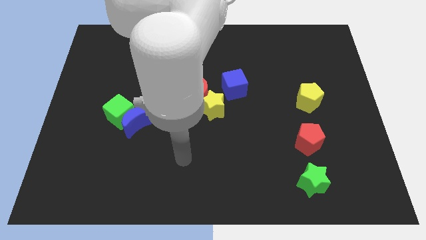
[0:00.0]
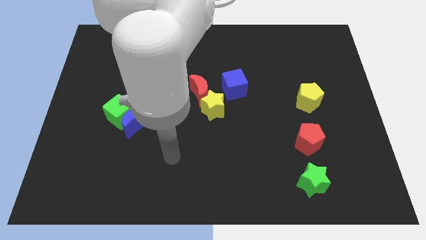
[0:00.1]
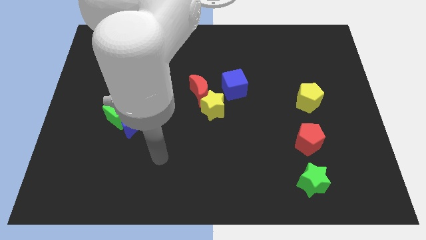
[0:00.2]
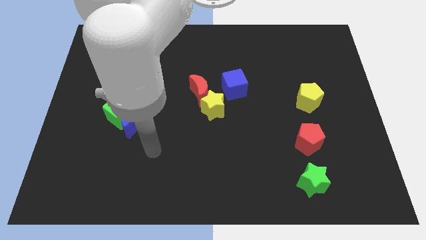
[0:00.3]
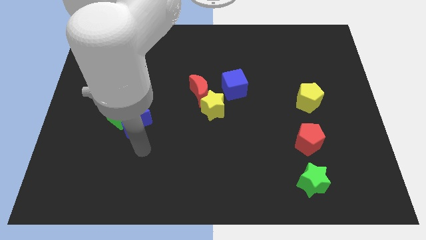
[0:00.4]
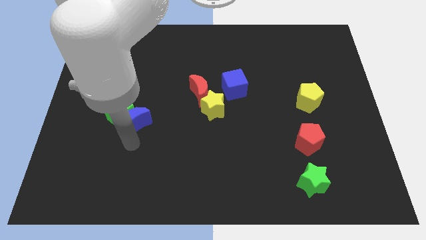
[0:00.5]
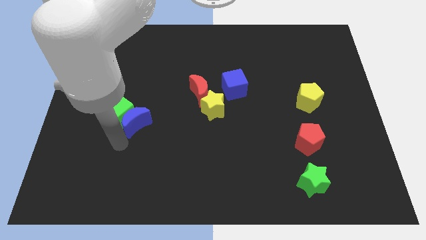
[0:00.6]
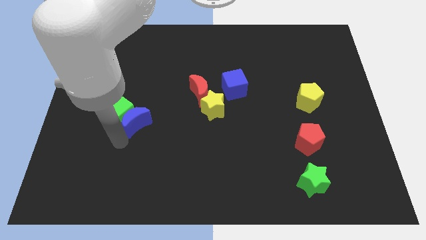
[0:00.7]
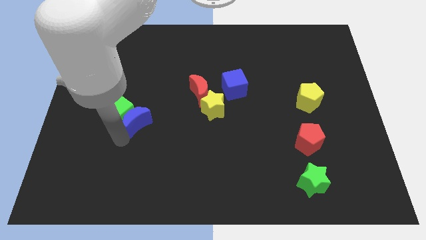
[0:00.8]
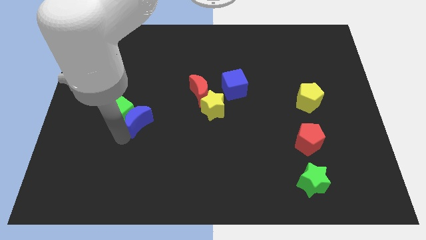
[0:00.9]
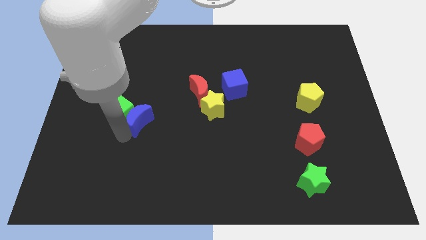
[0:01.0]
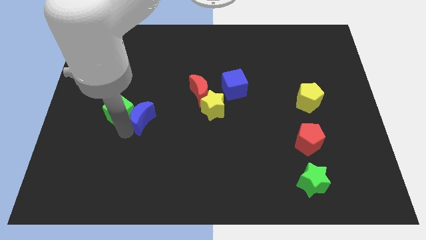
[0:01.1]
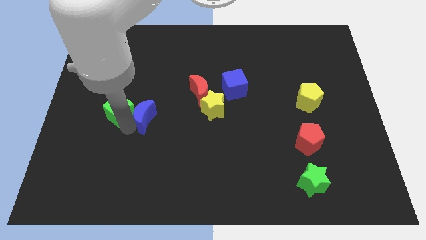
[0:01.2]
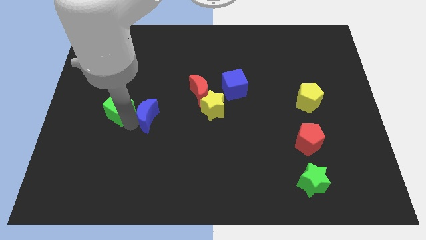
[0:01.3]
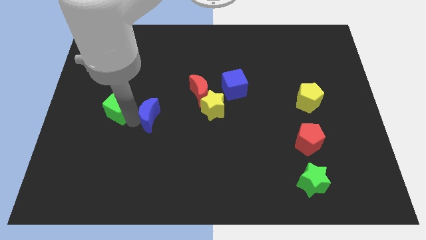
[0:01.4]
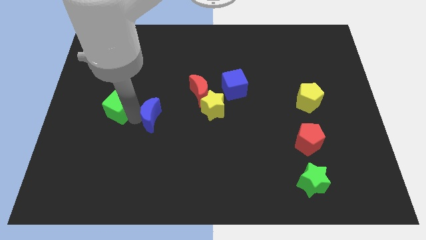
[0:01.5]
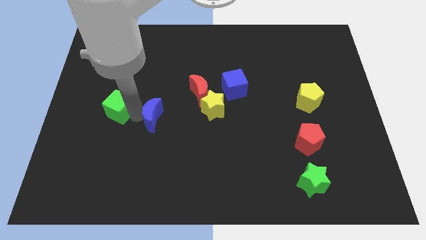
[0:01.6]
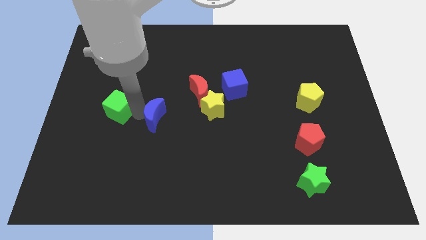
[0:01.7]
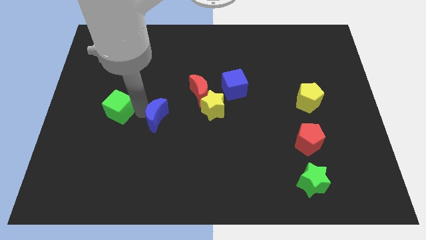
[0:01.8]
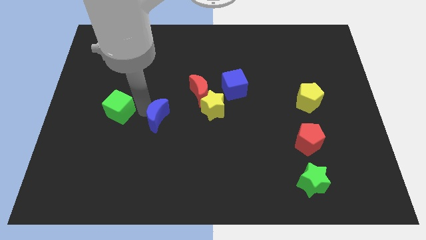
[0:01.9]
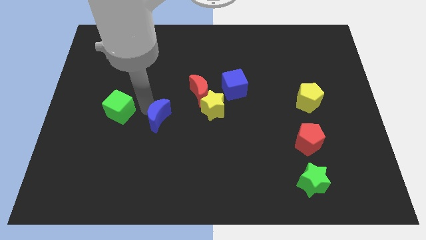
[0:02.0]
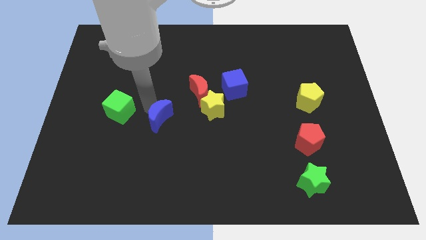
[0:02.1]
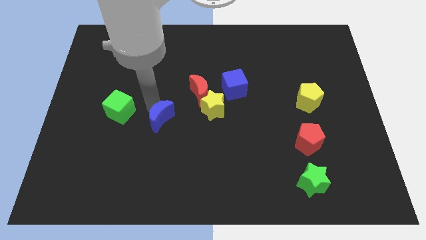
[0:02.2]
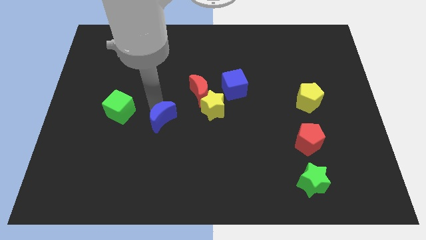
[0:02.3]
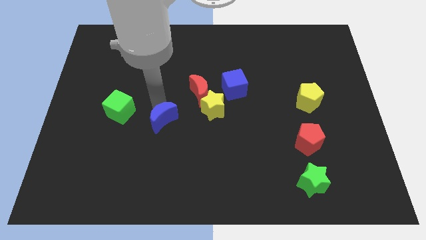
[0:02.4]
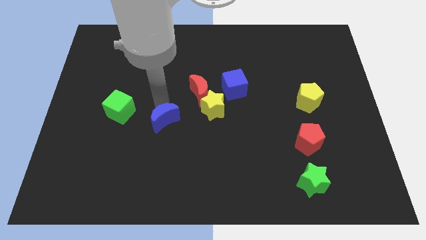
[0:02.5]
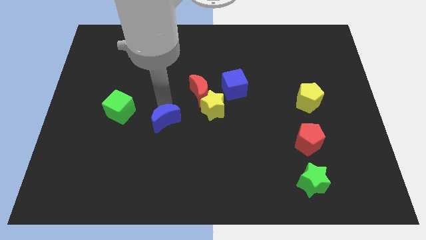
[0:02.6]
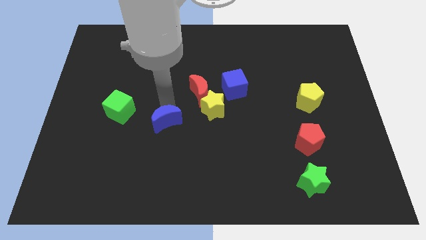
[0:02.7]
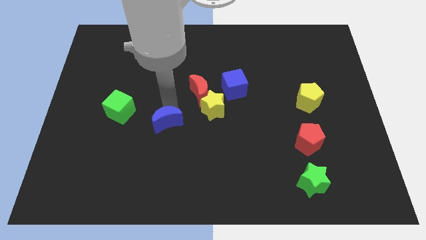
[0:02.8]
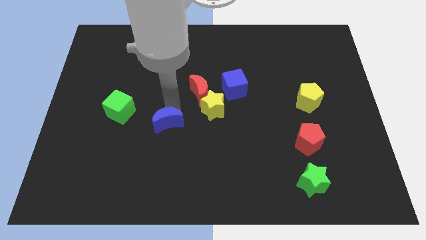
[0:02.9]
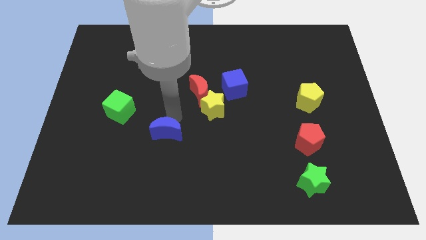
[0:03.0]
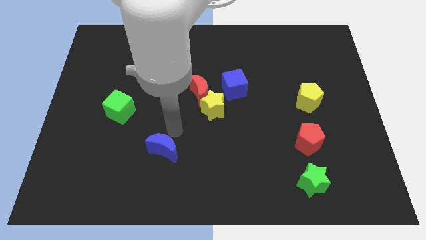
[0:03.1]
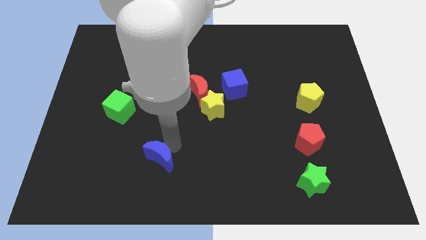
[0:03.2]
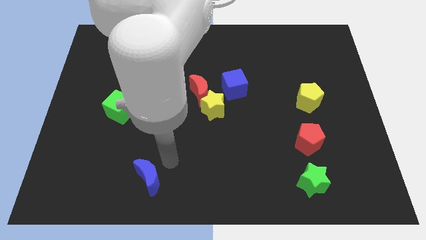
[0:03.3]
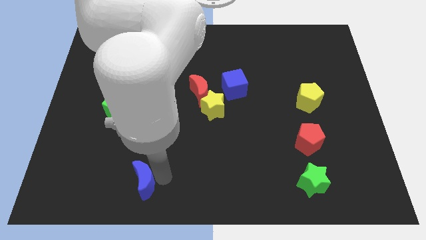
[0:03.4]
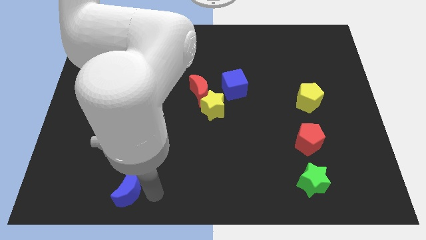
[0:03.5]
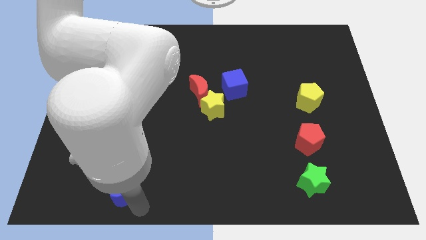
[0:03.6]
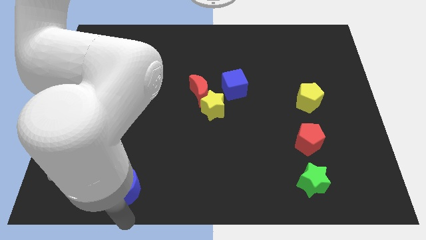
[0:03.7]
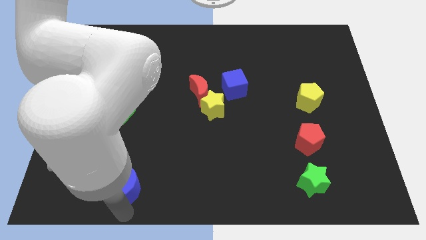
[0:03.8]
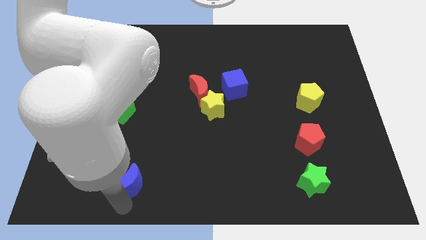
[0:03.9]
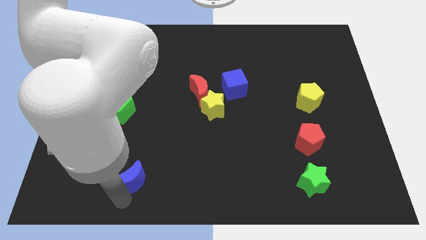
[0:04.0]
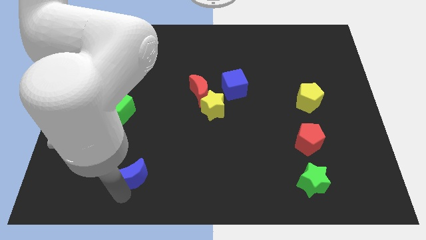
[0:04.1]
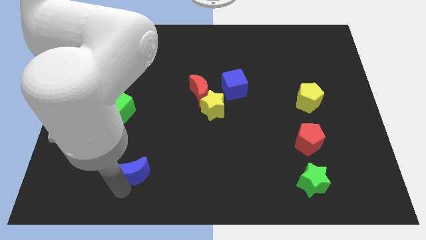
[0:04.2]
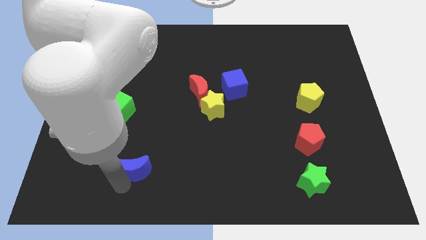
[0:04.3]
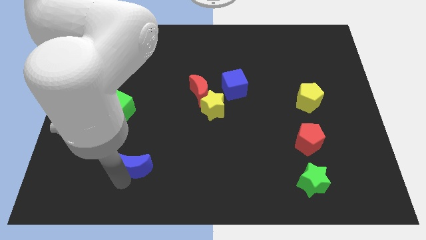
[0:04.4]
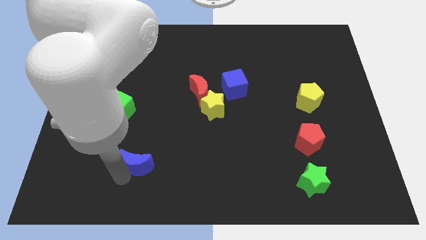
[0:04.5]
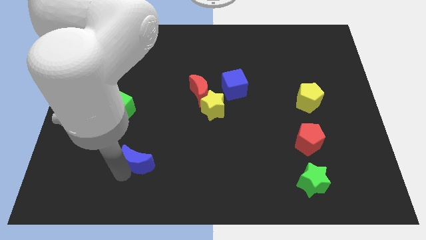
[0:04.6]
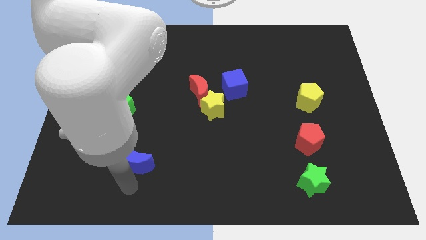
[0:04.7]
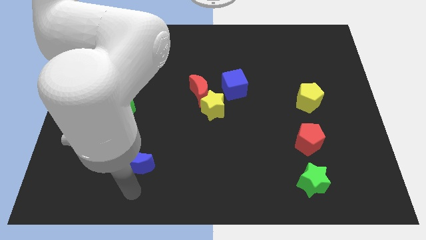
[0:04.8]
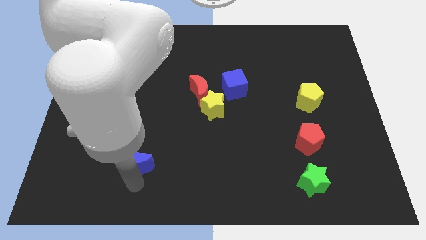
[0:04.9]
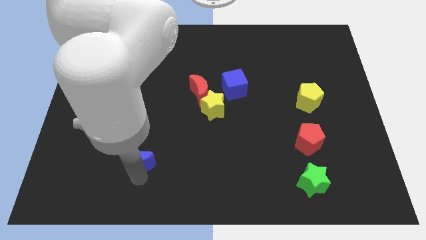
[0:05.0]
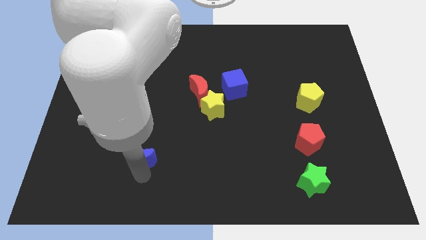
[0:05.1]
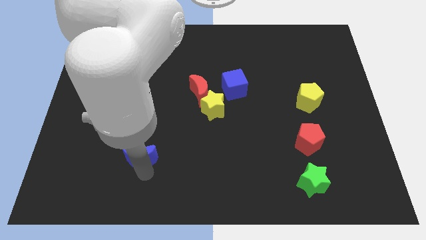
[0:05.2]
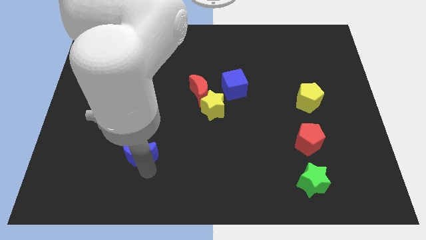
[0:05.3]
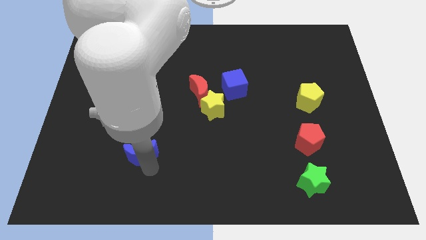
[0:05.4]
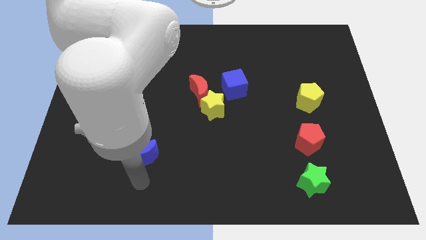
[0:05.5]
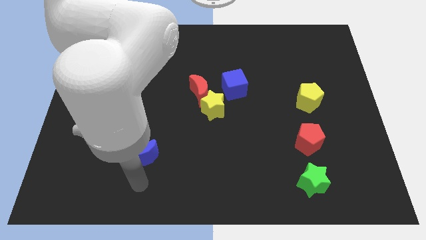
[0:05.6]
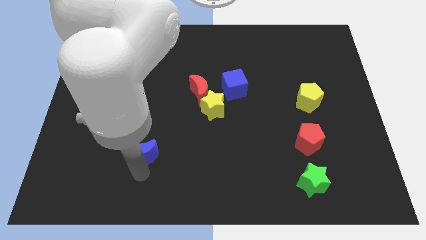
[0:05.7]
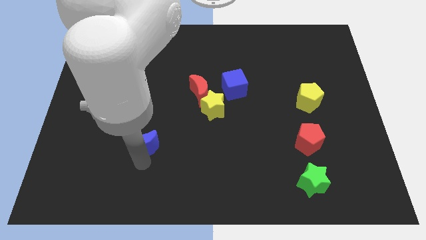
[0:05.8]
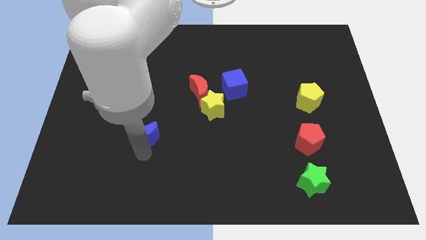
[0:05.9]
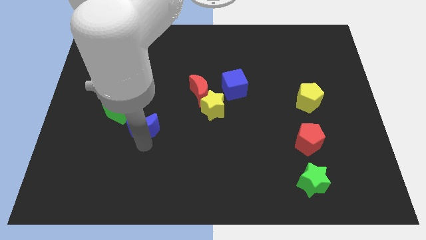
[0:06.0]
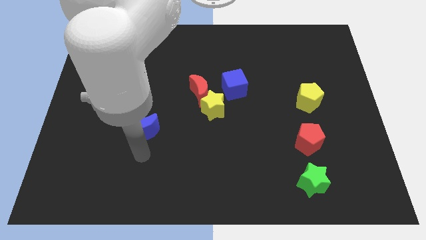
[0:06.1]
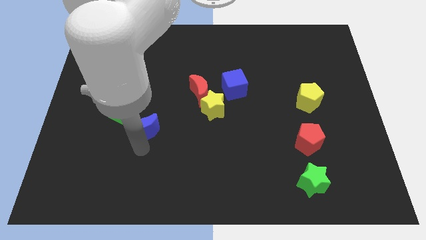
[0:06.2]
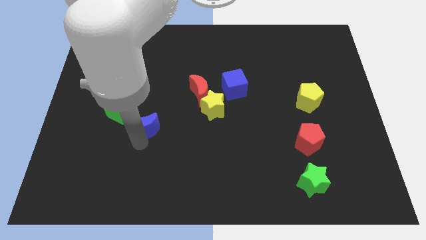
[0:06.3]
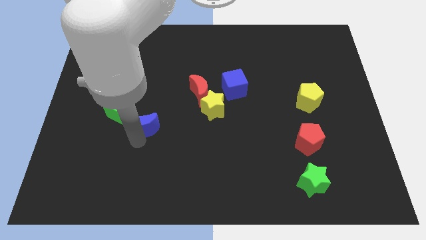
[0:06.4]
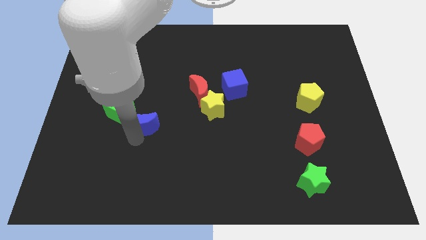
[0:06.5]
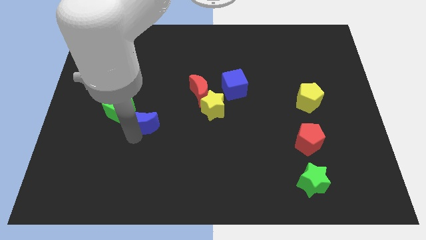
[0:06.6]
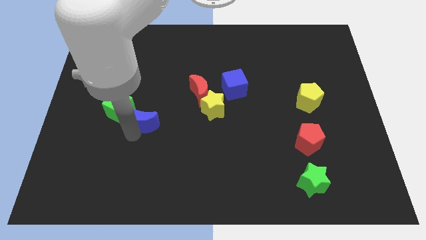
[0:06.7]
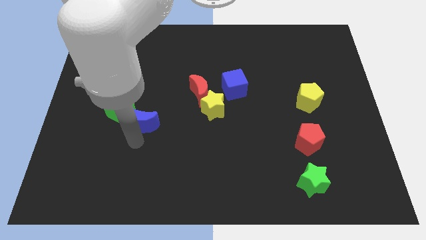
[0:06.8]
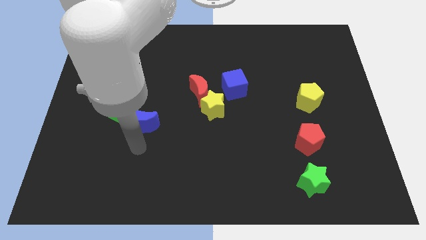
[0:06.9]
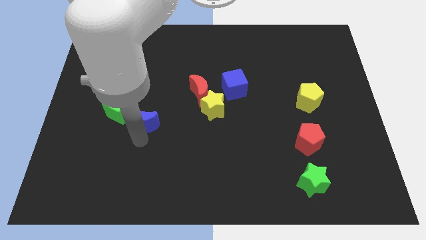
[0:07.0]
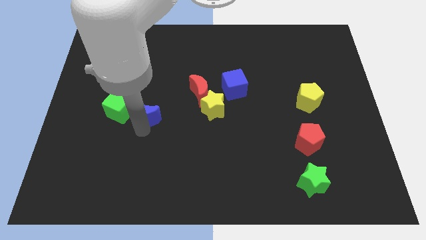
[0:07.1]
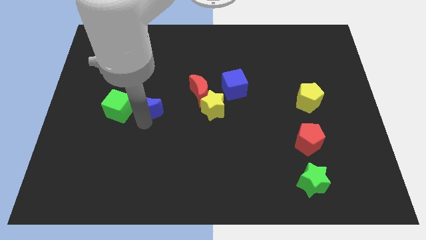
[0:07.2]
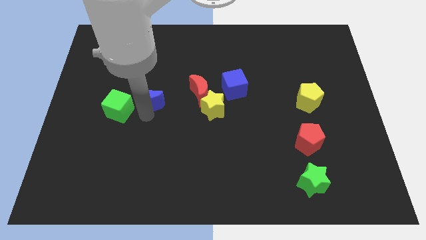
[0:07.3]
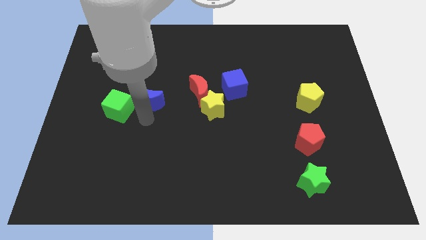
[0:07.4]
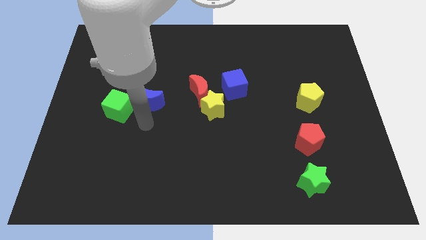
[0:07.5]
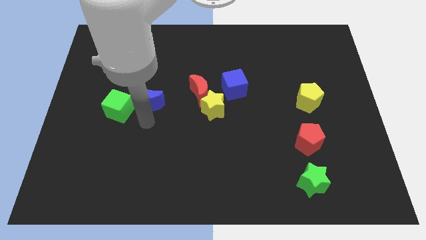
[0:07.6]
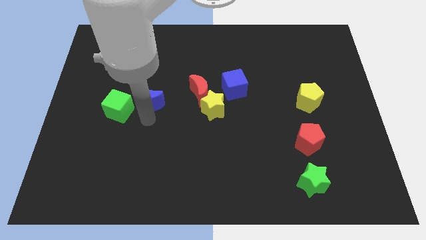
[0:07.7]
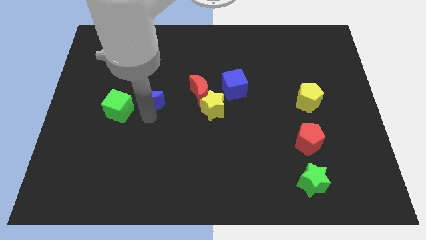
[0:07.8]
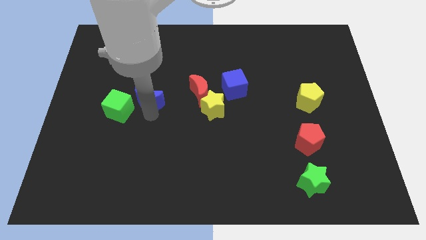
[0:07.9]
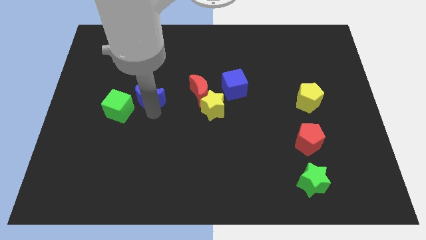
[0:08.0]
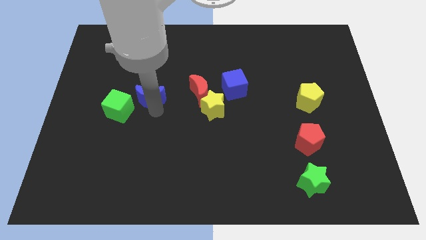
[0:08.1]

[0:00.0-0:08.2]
push the blue moon up a bit
